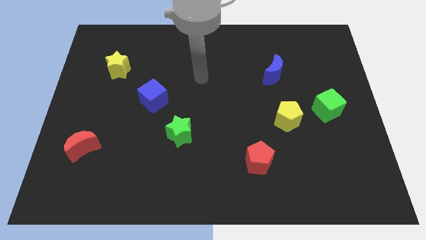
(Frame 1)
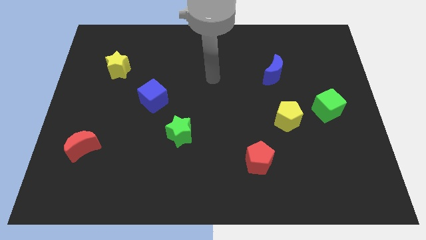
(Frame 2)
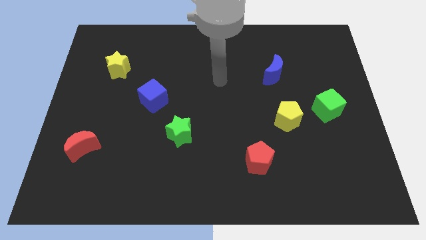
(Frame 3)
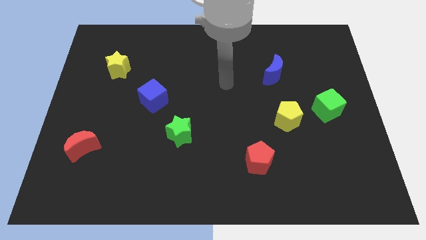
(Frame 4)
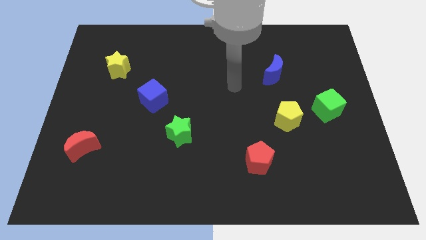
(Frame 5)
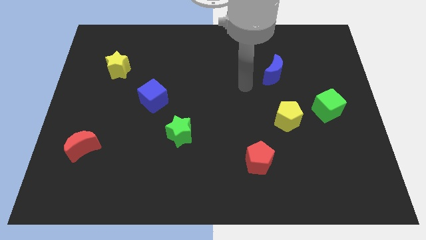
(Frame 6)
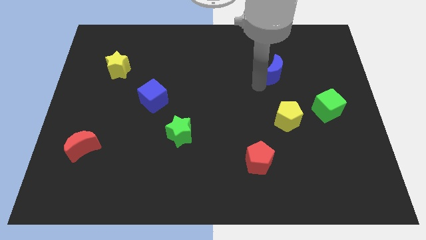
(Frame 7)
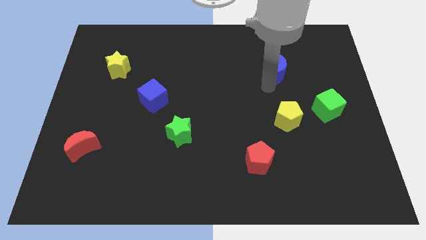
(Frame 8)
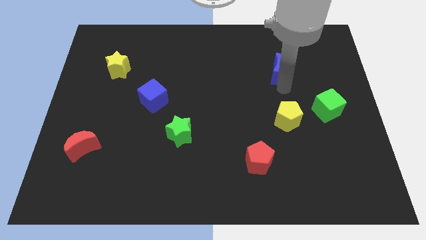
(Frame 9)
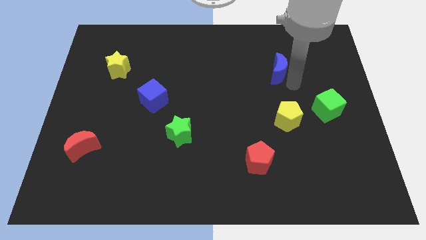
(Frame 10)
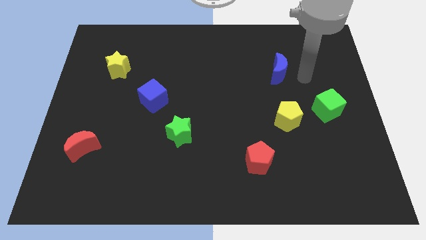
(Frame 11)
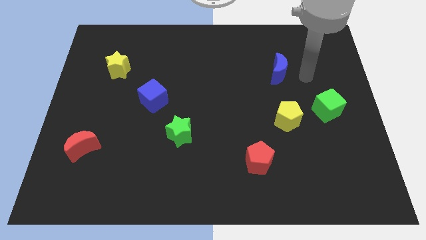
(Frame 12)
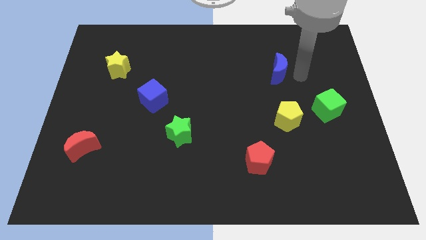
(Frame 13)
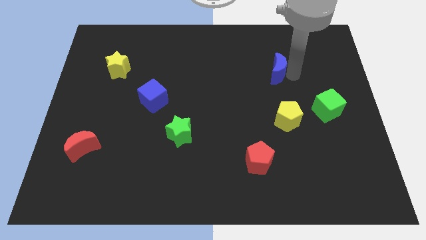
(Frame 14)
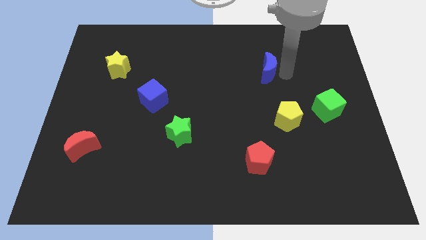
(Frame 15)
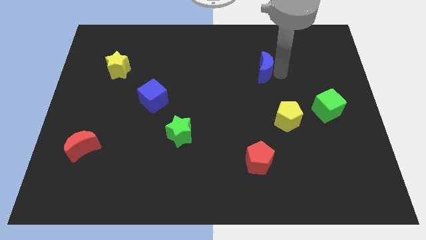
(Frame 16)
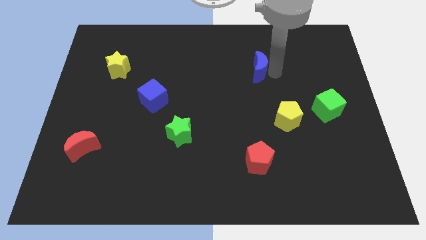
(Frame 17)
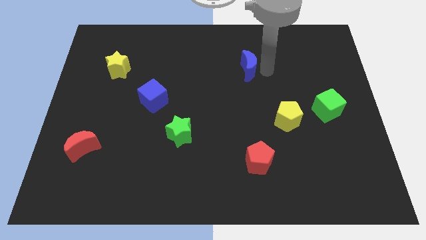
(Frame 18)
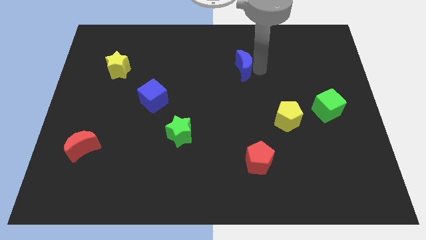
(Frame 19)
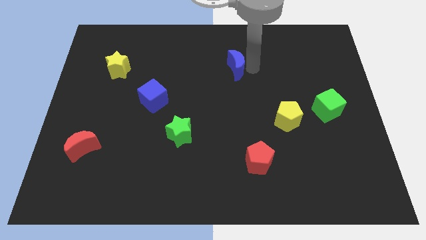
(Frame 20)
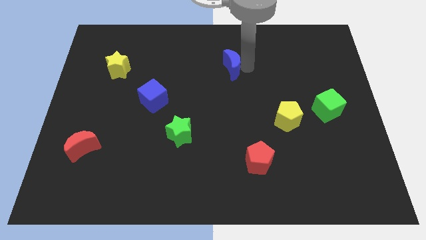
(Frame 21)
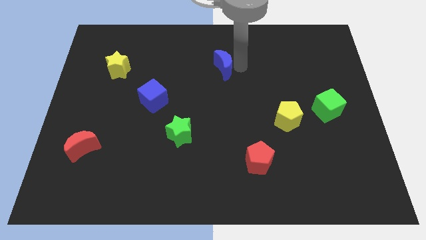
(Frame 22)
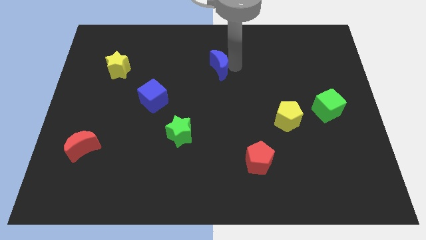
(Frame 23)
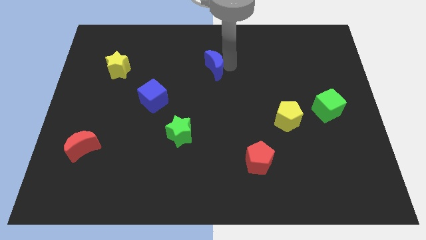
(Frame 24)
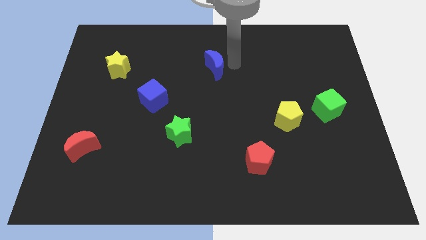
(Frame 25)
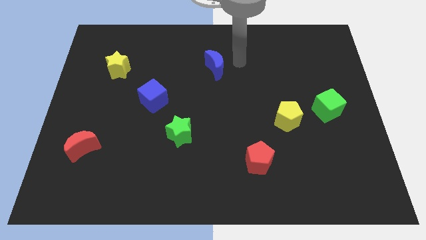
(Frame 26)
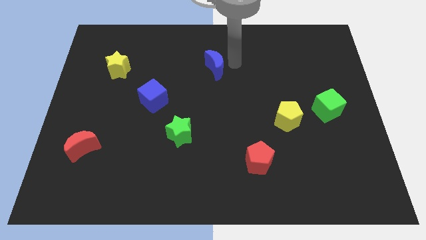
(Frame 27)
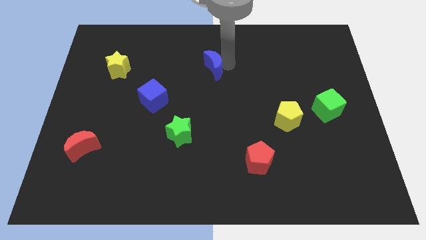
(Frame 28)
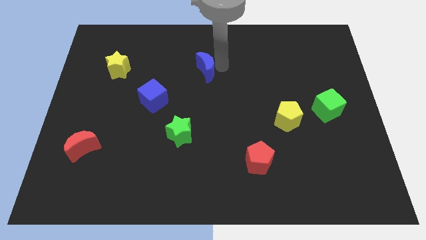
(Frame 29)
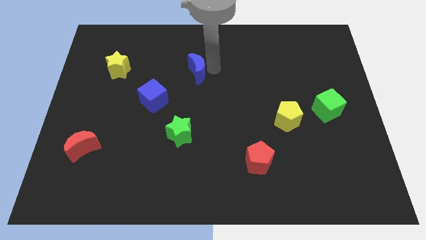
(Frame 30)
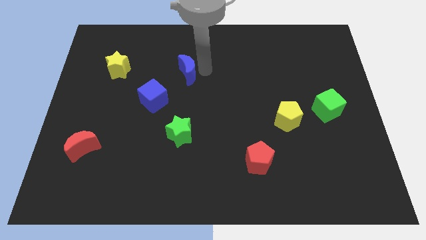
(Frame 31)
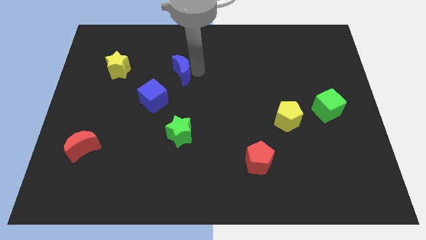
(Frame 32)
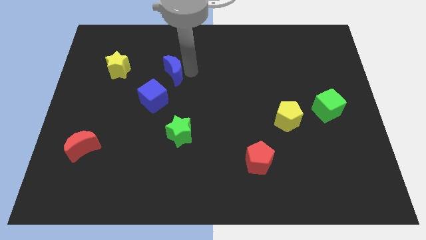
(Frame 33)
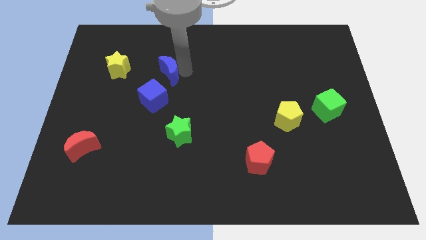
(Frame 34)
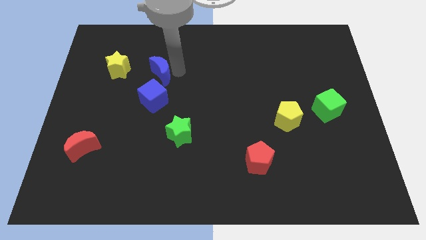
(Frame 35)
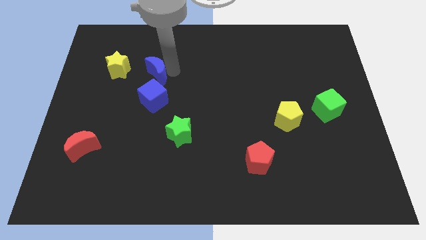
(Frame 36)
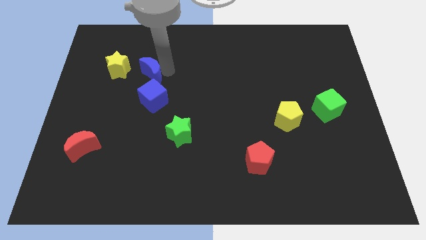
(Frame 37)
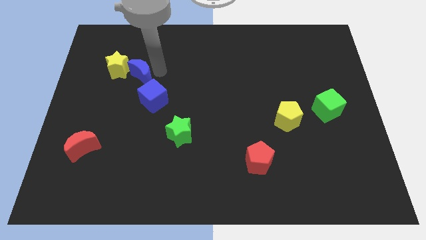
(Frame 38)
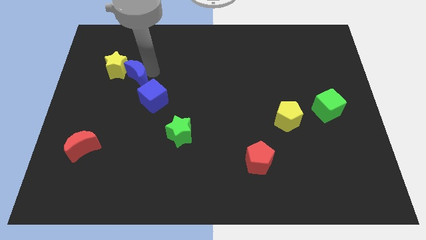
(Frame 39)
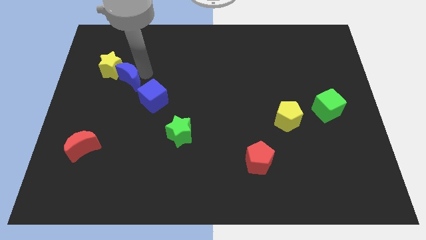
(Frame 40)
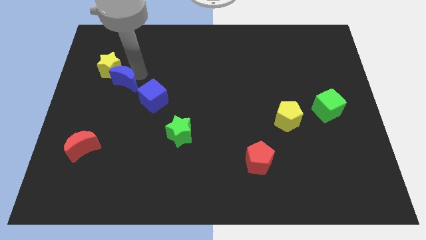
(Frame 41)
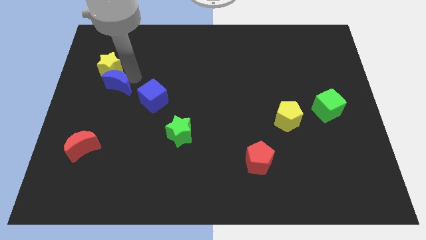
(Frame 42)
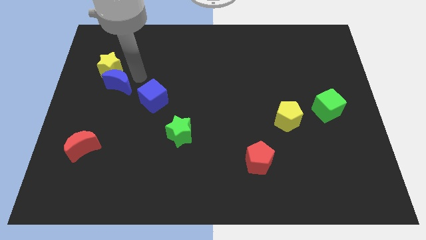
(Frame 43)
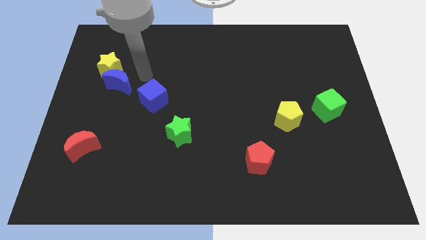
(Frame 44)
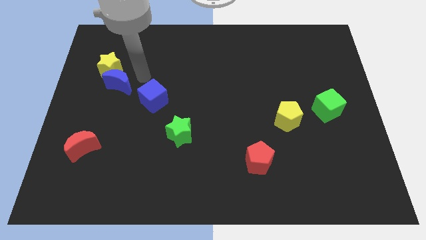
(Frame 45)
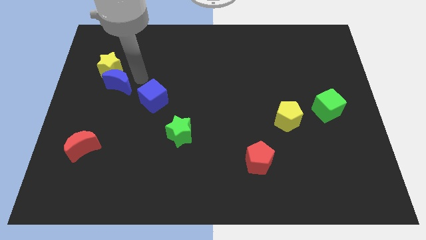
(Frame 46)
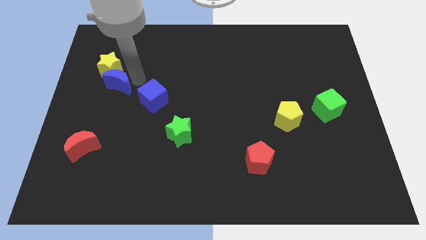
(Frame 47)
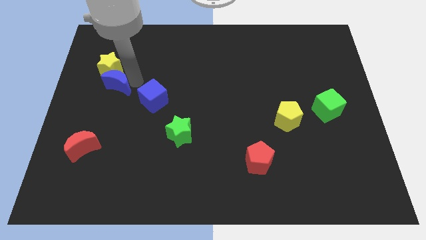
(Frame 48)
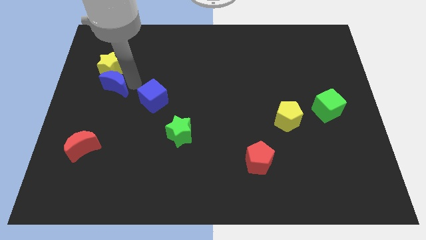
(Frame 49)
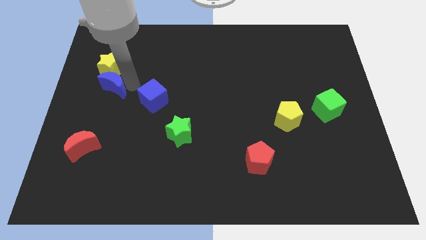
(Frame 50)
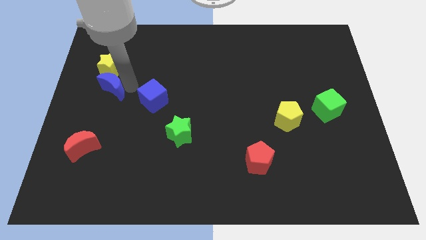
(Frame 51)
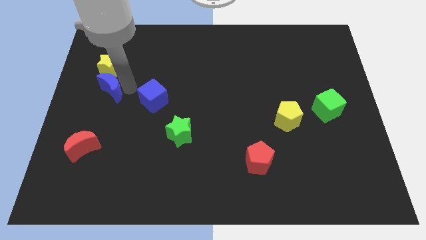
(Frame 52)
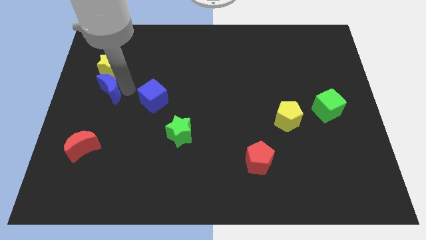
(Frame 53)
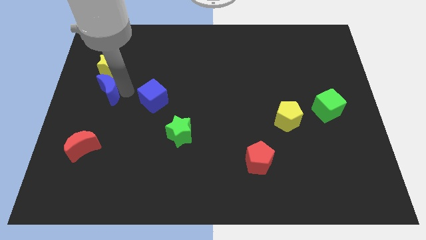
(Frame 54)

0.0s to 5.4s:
put the blue moon to the left side of the board

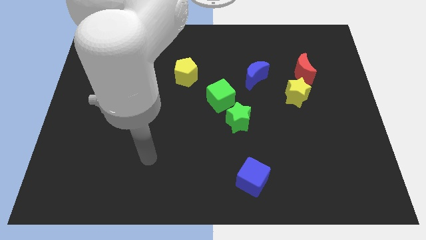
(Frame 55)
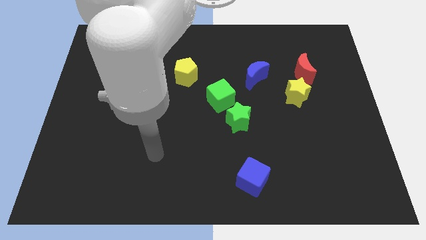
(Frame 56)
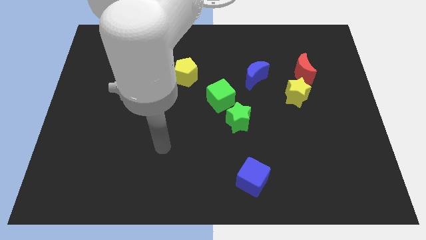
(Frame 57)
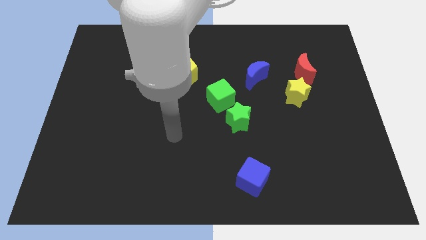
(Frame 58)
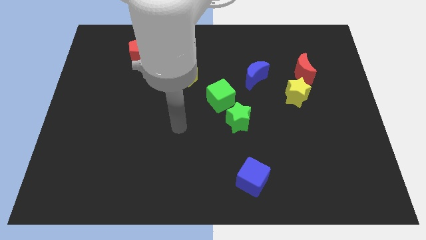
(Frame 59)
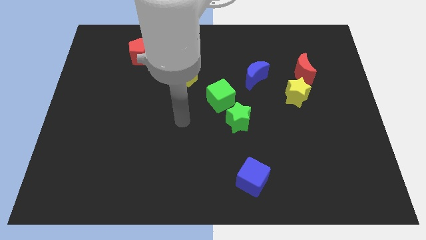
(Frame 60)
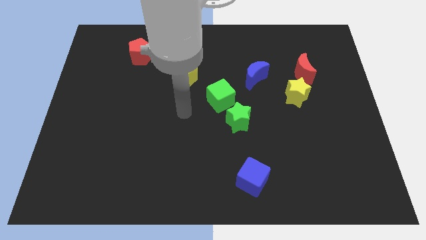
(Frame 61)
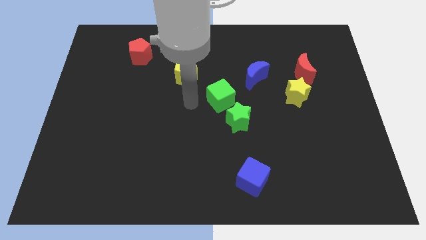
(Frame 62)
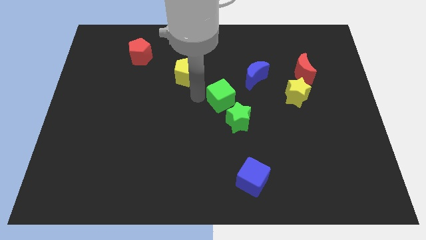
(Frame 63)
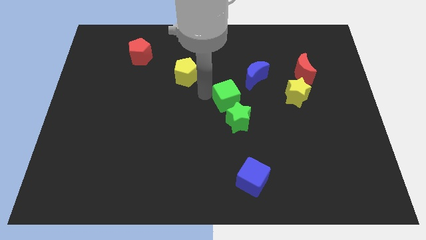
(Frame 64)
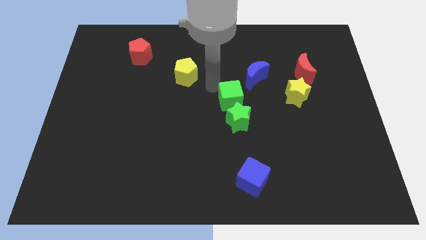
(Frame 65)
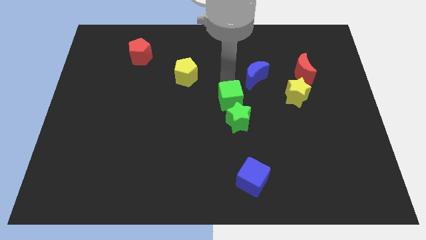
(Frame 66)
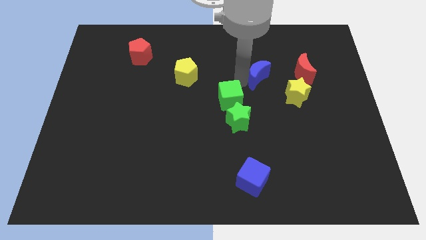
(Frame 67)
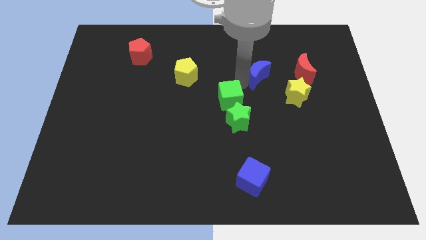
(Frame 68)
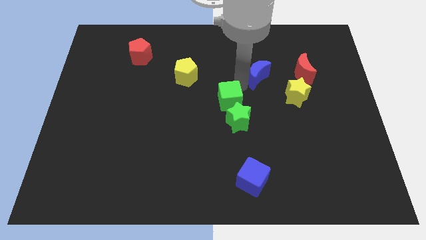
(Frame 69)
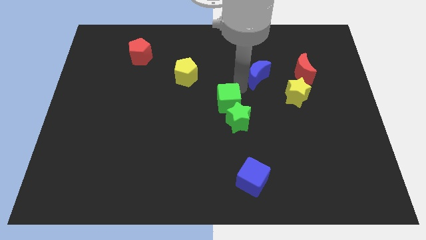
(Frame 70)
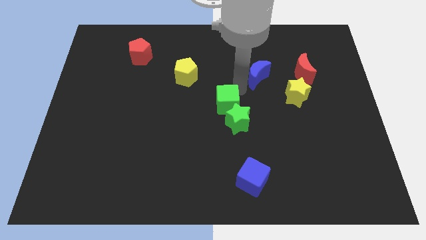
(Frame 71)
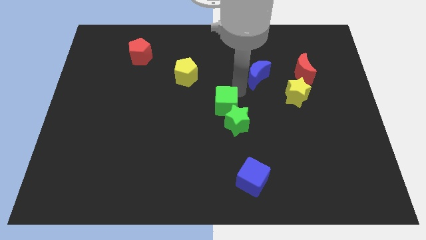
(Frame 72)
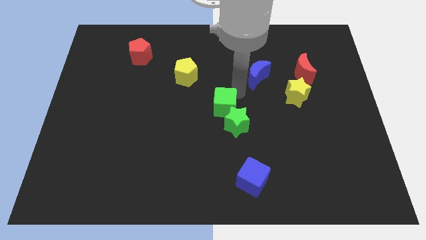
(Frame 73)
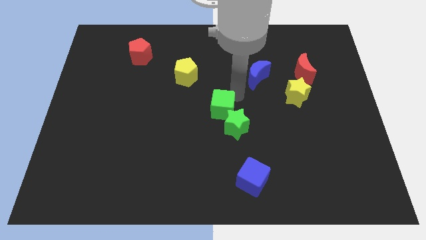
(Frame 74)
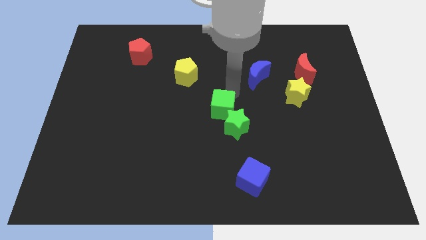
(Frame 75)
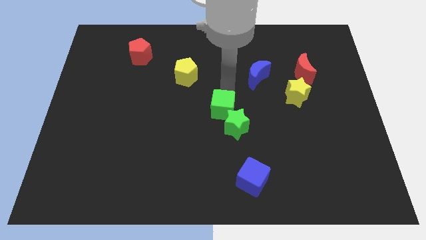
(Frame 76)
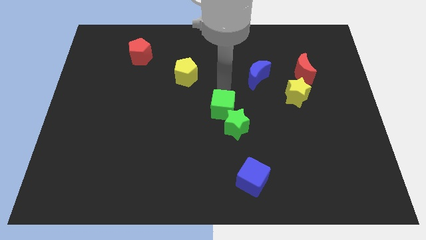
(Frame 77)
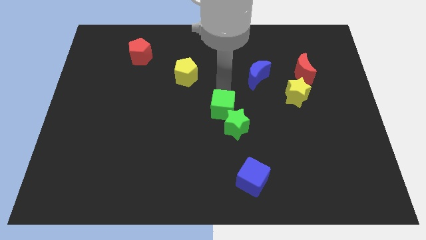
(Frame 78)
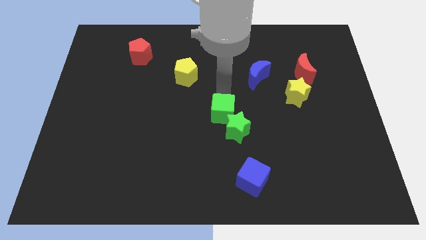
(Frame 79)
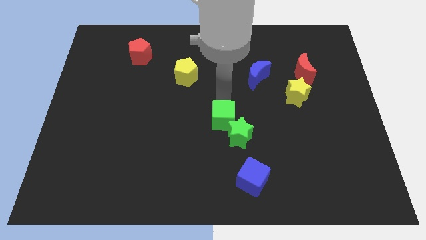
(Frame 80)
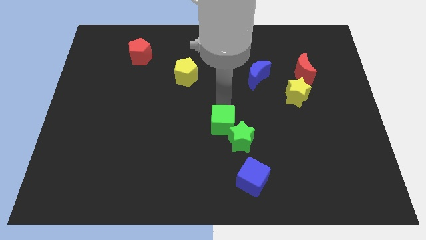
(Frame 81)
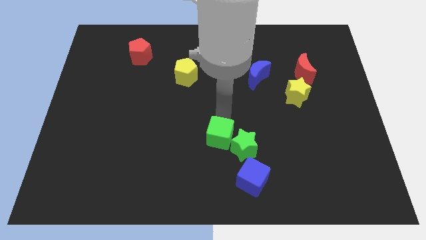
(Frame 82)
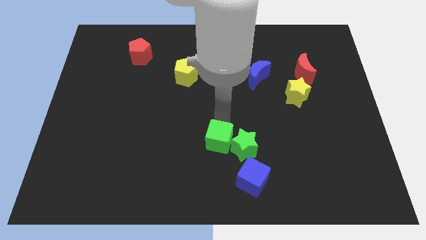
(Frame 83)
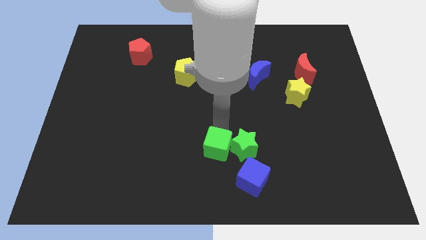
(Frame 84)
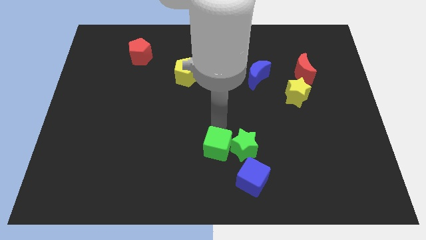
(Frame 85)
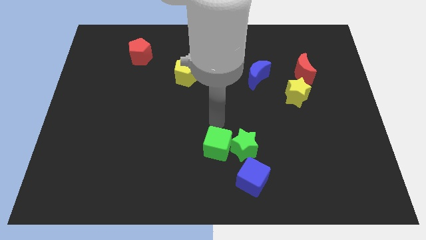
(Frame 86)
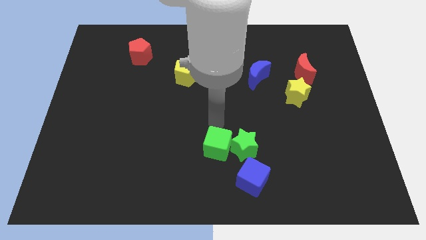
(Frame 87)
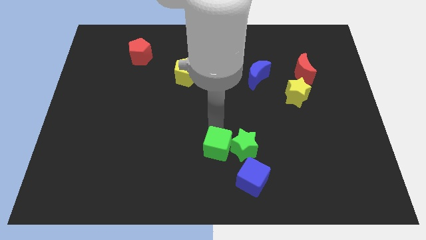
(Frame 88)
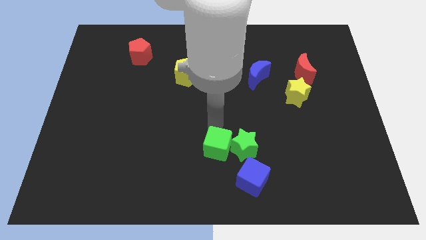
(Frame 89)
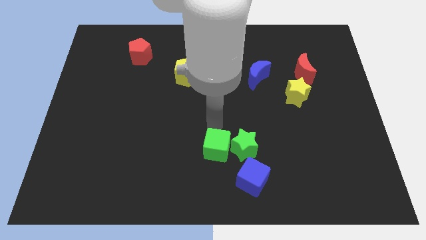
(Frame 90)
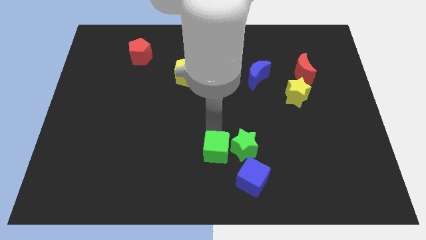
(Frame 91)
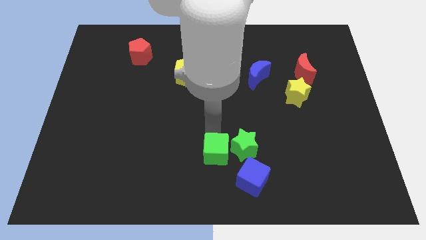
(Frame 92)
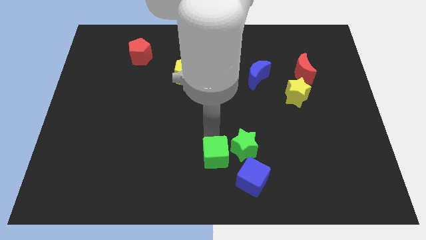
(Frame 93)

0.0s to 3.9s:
move the green cube to the bottom
